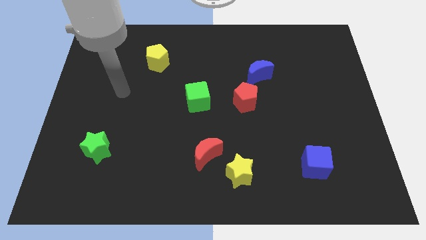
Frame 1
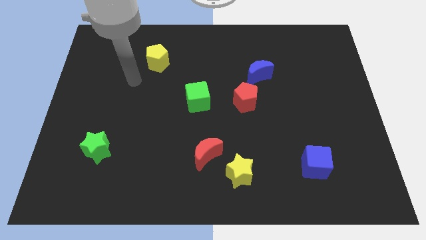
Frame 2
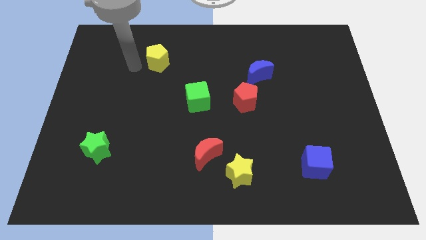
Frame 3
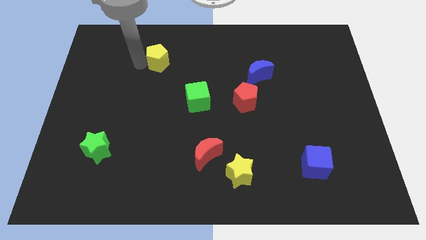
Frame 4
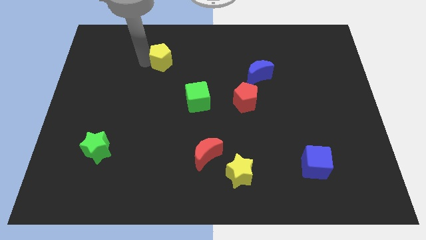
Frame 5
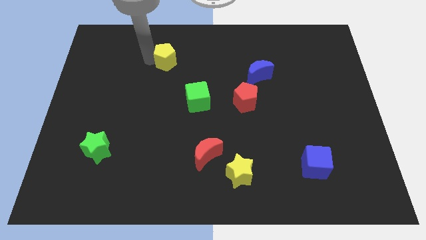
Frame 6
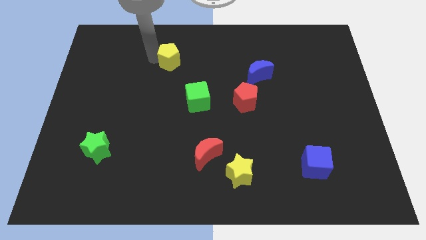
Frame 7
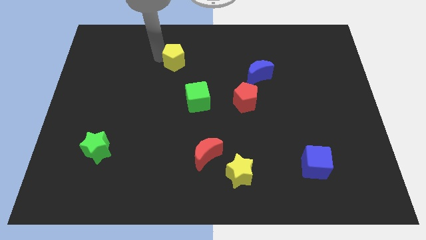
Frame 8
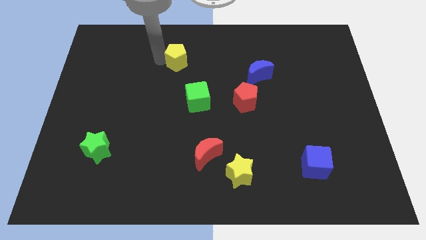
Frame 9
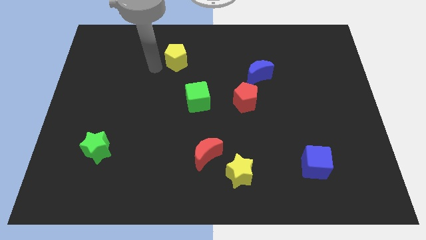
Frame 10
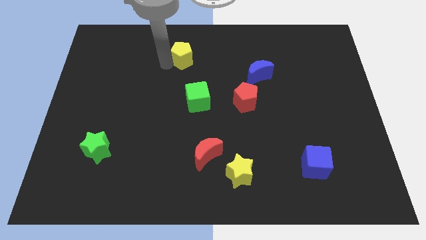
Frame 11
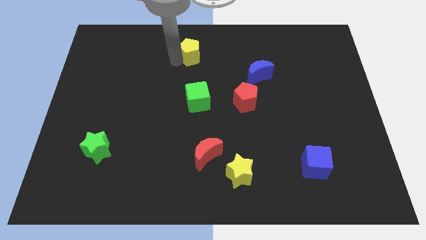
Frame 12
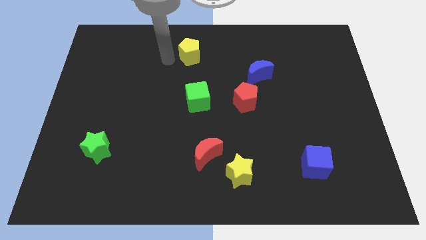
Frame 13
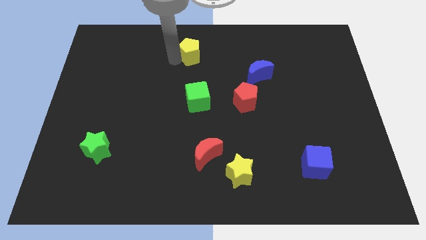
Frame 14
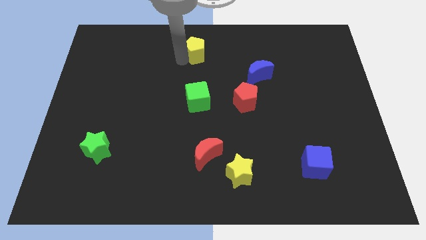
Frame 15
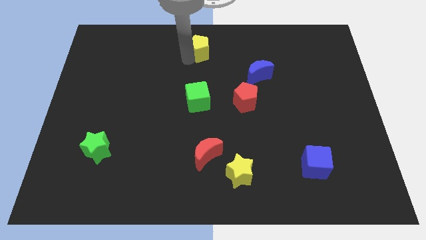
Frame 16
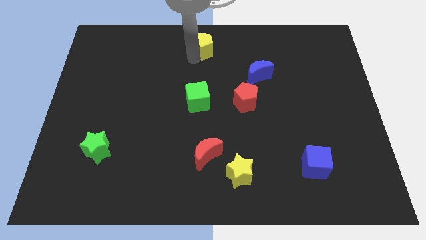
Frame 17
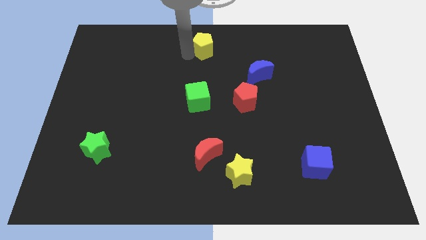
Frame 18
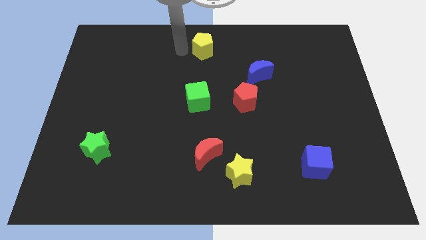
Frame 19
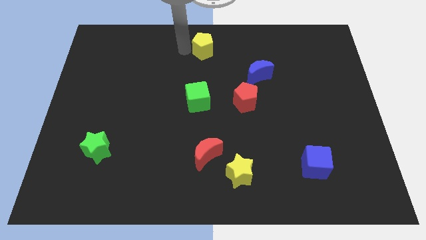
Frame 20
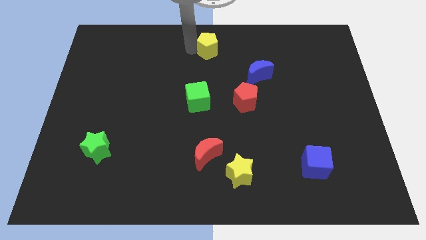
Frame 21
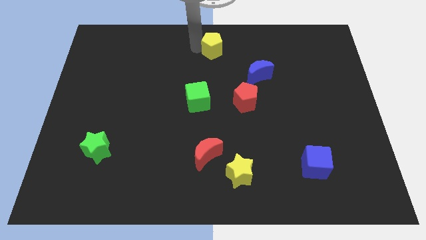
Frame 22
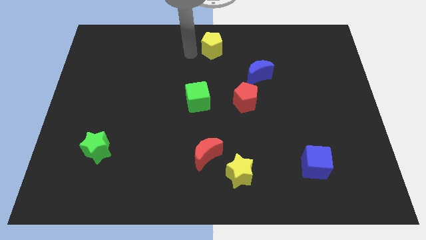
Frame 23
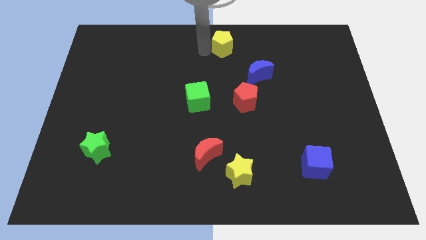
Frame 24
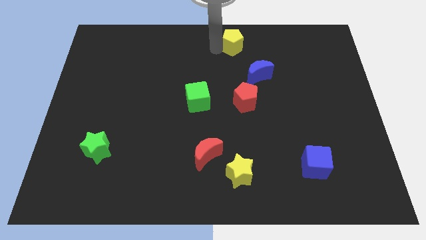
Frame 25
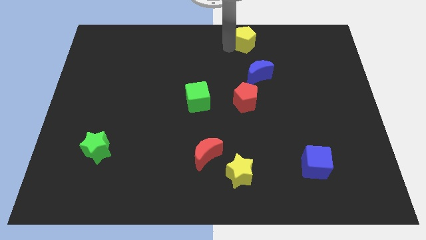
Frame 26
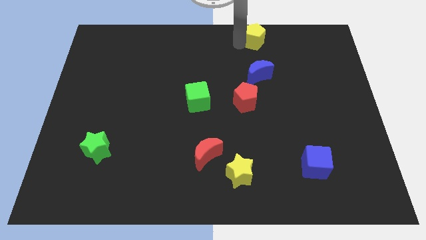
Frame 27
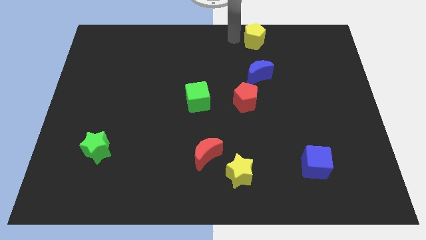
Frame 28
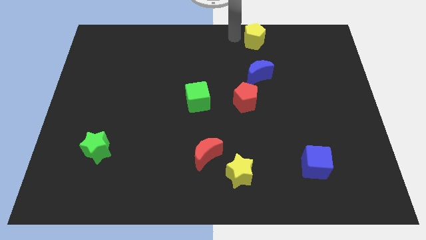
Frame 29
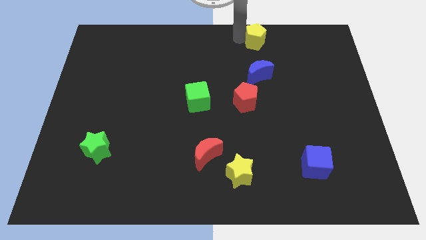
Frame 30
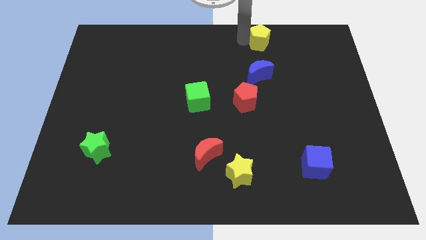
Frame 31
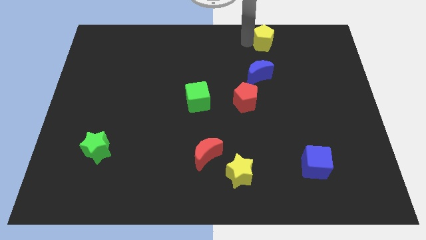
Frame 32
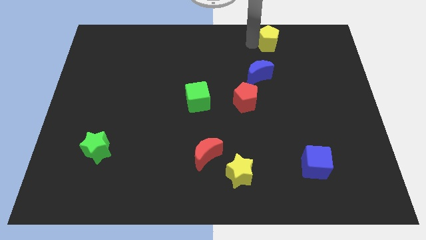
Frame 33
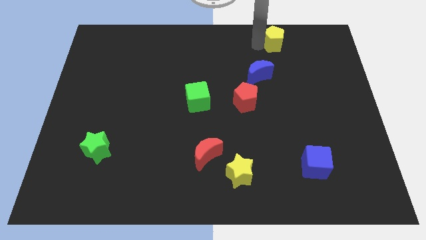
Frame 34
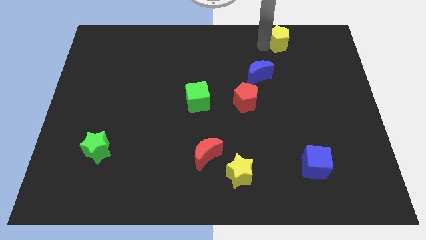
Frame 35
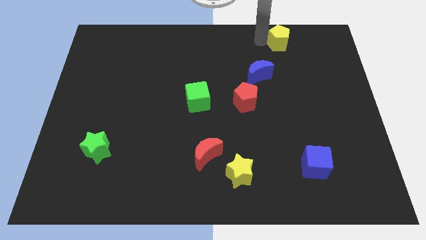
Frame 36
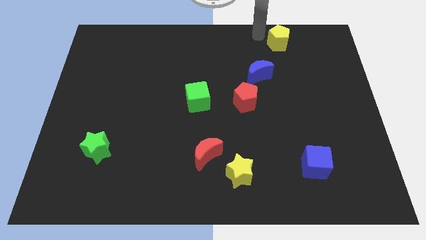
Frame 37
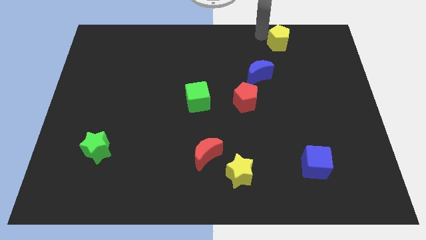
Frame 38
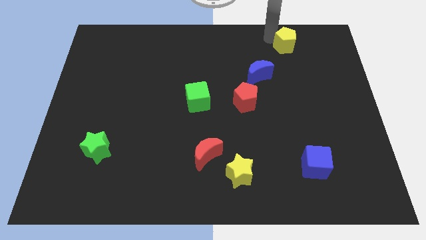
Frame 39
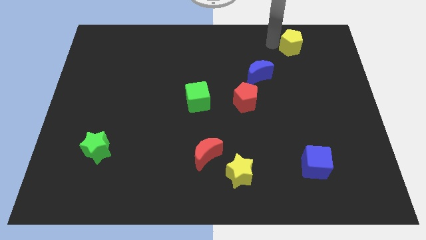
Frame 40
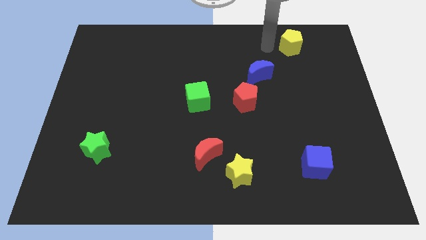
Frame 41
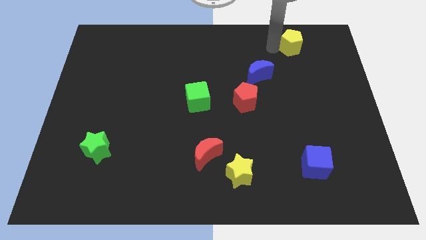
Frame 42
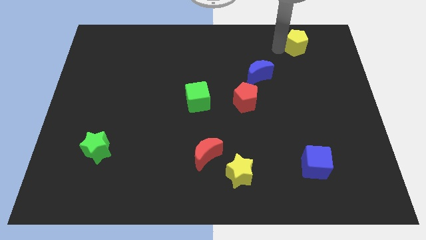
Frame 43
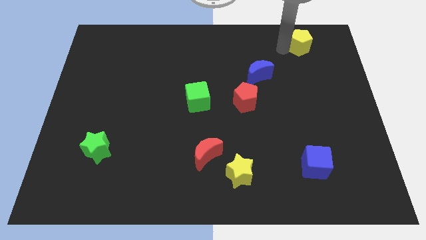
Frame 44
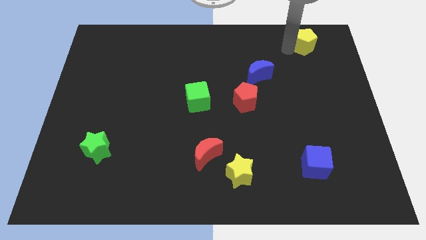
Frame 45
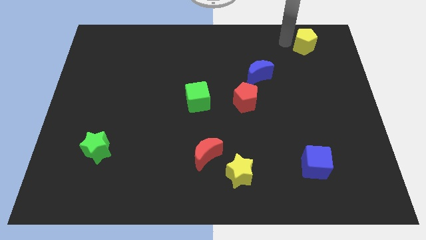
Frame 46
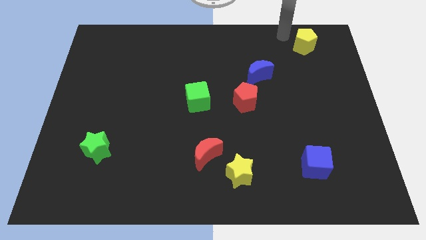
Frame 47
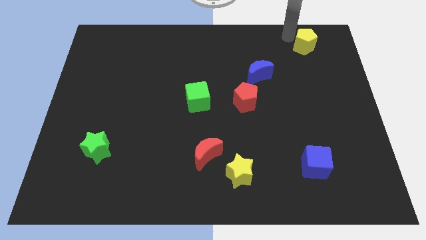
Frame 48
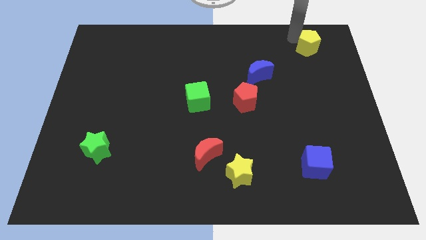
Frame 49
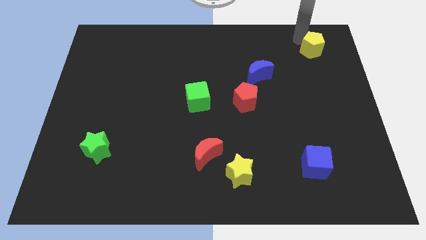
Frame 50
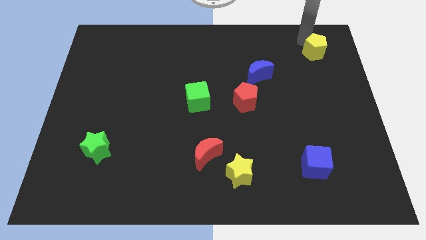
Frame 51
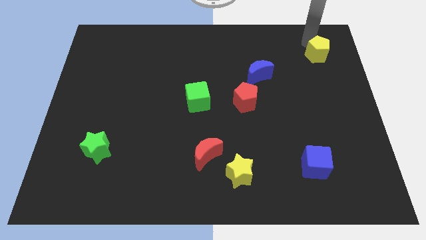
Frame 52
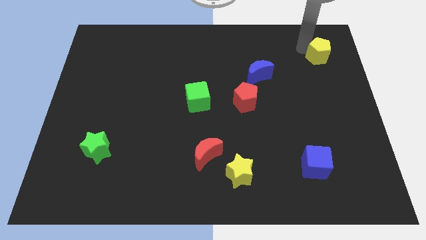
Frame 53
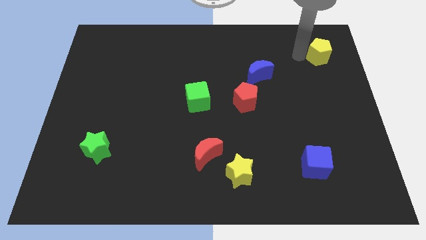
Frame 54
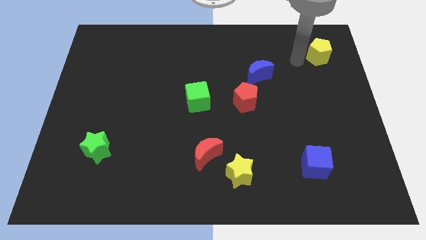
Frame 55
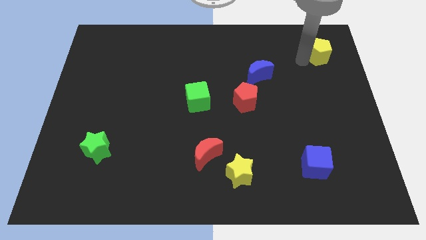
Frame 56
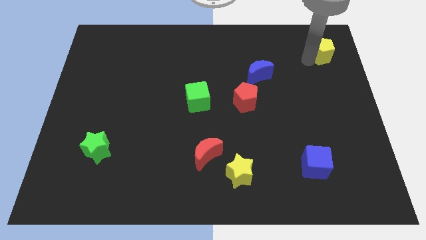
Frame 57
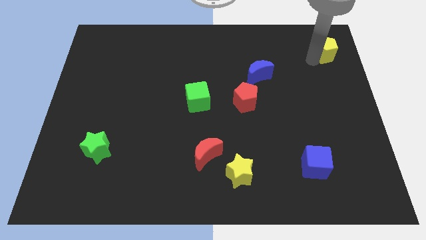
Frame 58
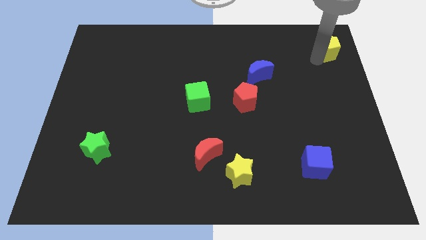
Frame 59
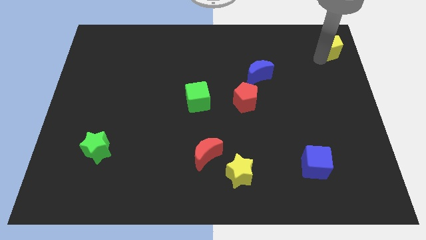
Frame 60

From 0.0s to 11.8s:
put the yellow pentagon to the top right corner

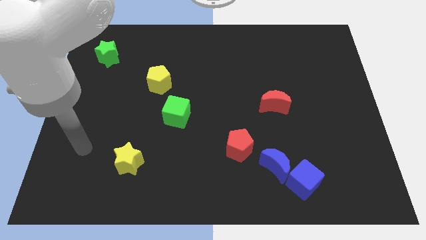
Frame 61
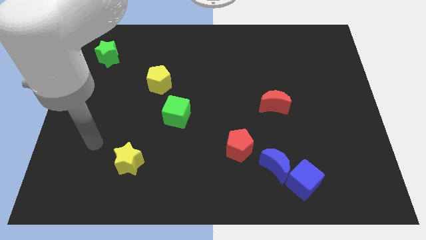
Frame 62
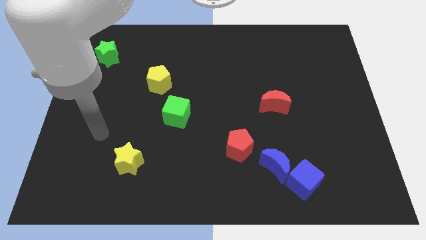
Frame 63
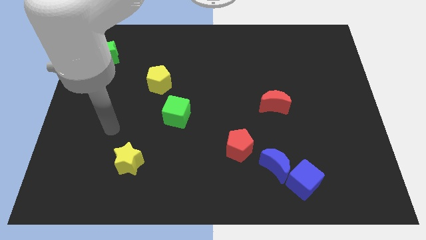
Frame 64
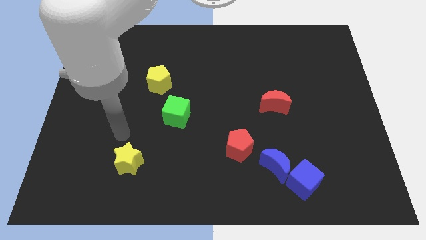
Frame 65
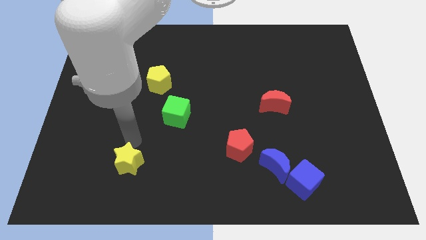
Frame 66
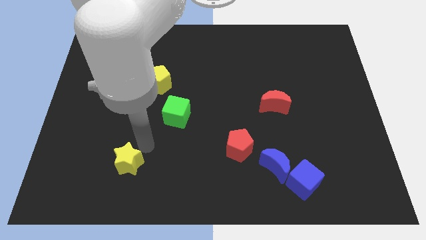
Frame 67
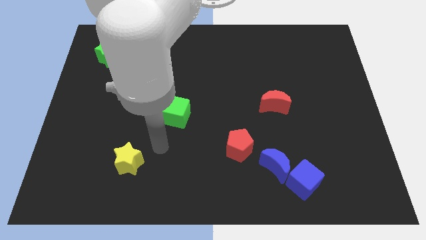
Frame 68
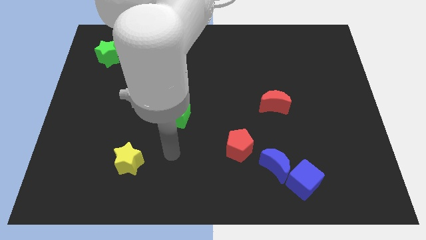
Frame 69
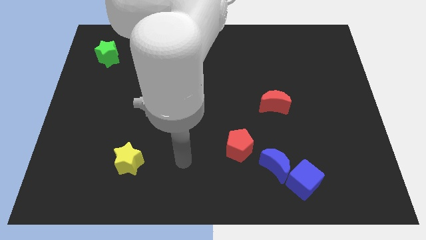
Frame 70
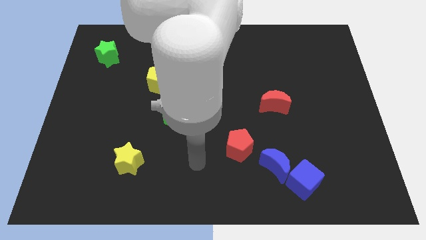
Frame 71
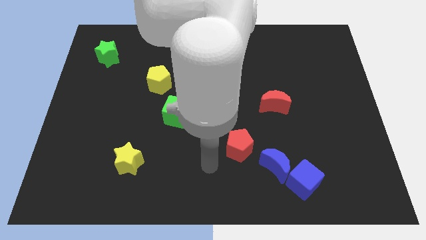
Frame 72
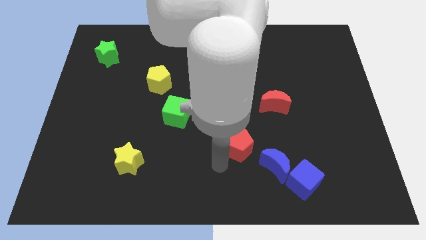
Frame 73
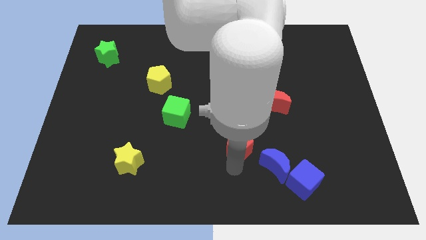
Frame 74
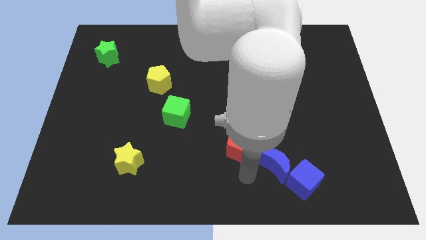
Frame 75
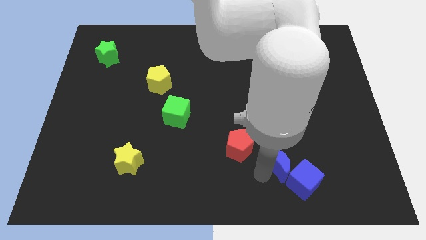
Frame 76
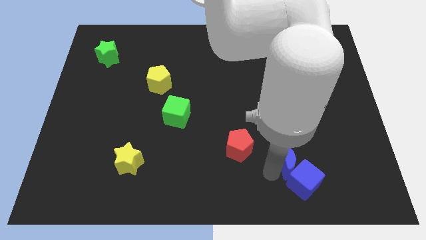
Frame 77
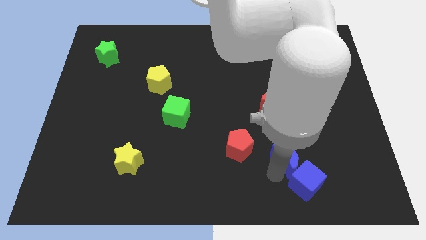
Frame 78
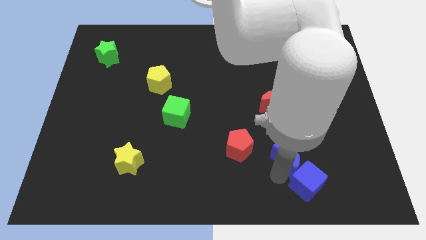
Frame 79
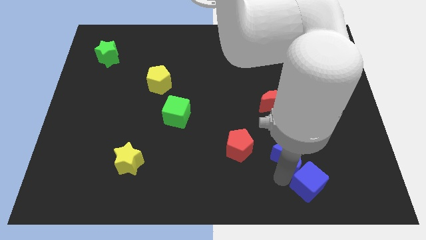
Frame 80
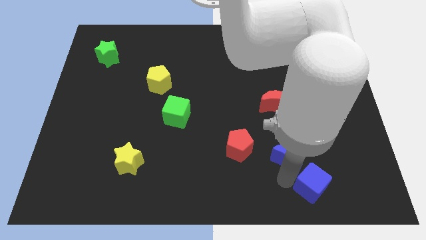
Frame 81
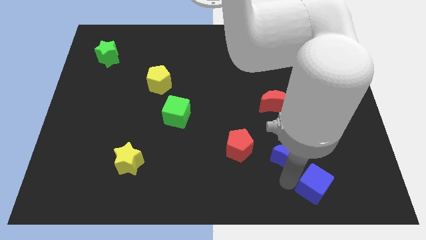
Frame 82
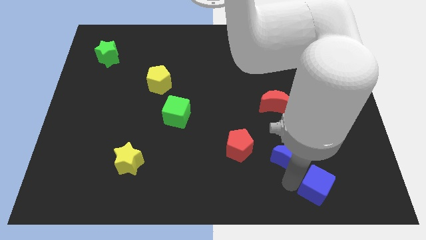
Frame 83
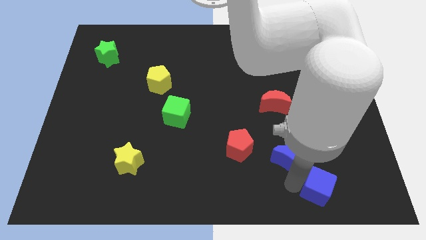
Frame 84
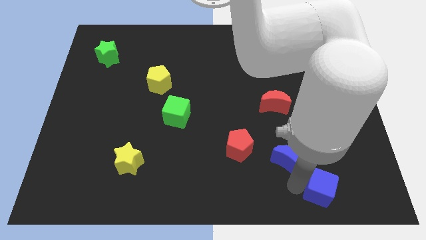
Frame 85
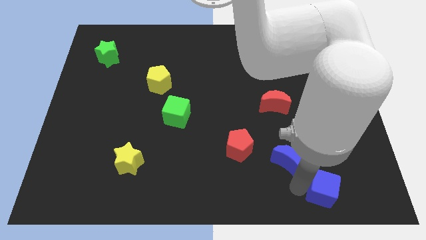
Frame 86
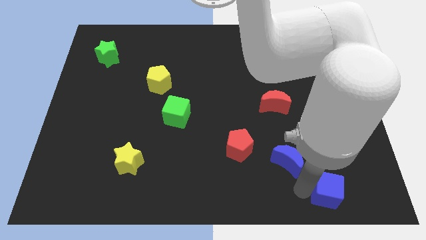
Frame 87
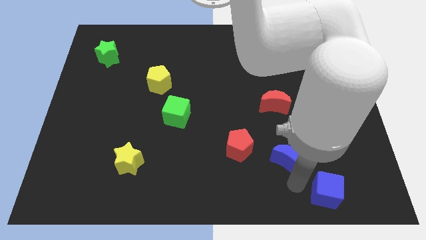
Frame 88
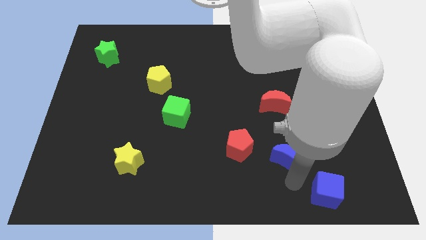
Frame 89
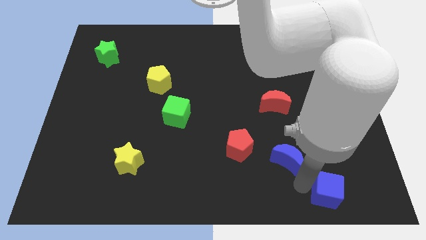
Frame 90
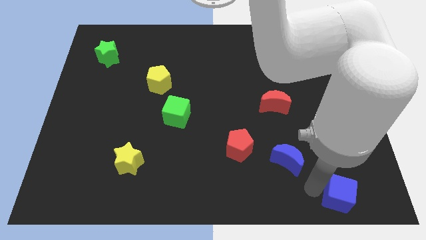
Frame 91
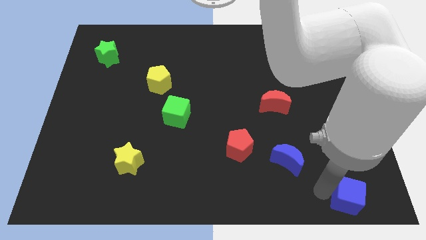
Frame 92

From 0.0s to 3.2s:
put the blue cube to the bottom right corner
